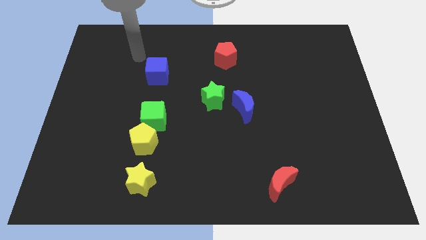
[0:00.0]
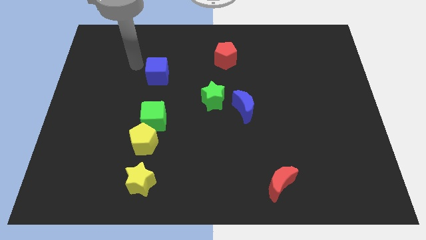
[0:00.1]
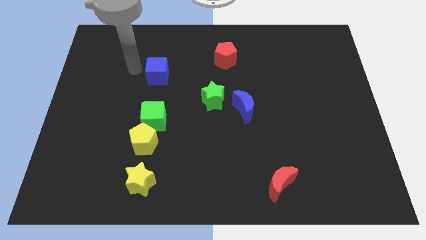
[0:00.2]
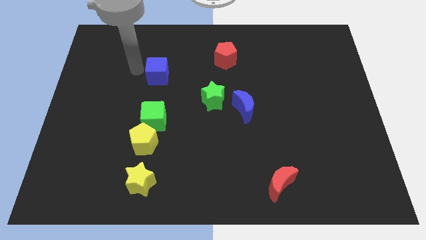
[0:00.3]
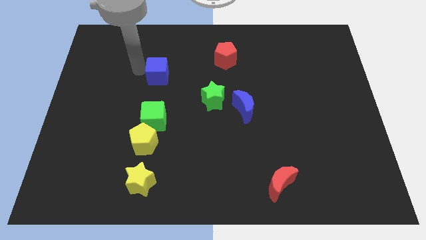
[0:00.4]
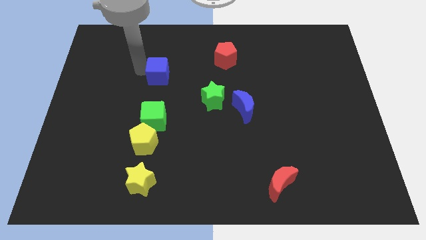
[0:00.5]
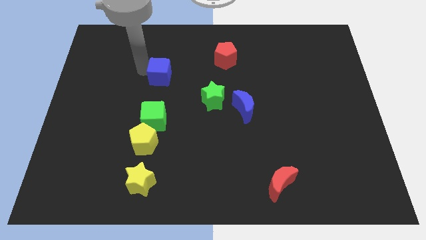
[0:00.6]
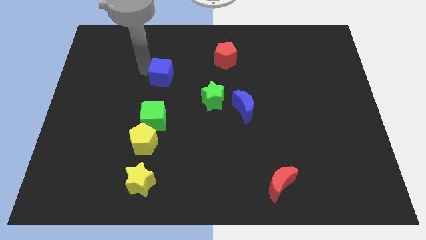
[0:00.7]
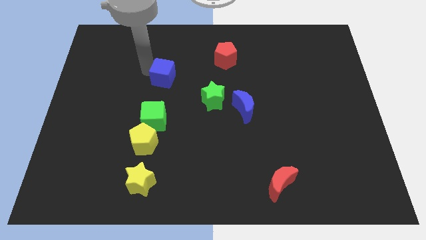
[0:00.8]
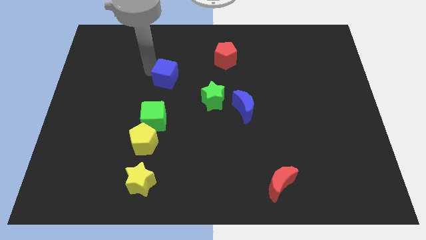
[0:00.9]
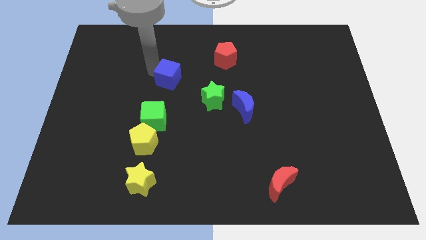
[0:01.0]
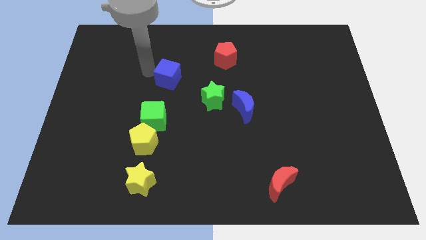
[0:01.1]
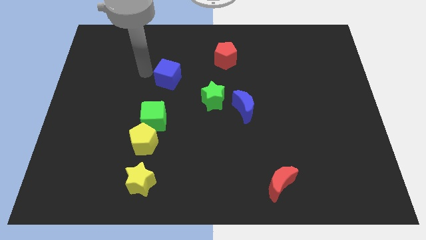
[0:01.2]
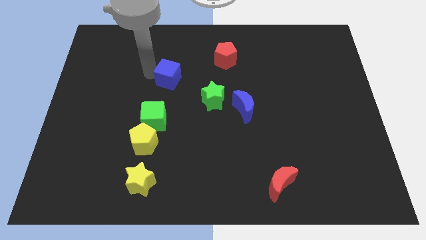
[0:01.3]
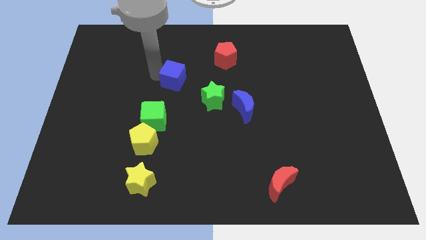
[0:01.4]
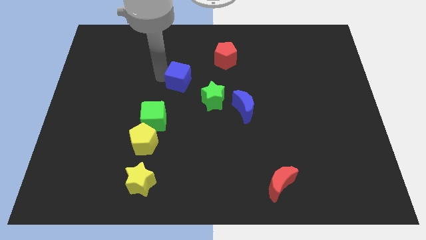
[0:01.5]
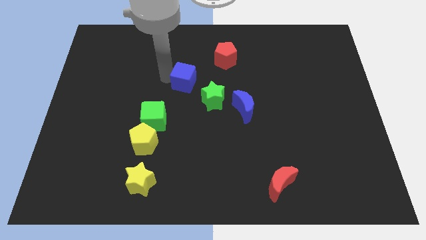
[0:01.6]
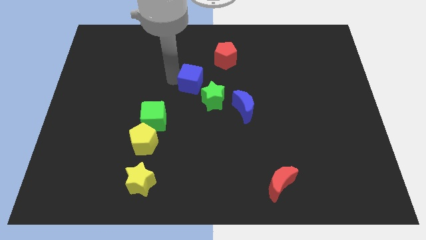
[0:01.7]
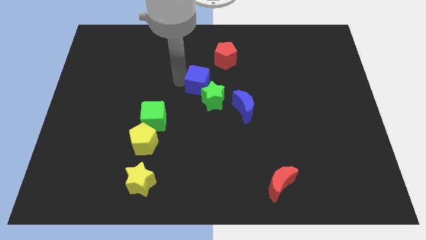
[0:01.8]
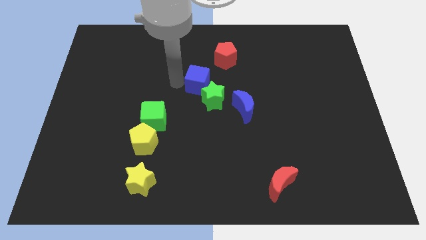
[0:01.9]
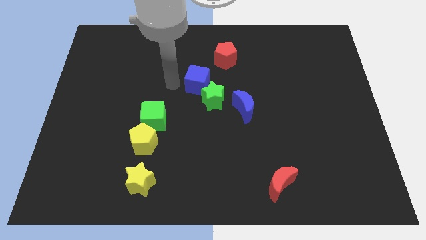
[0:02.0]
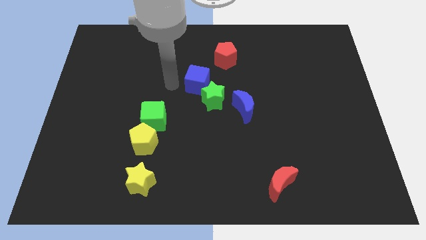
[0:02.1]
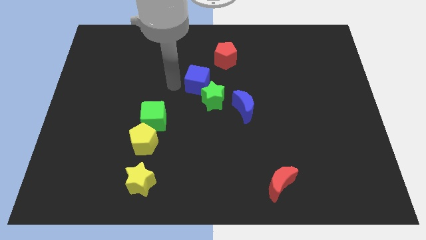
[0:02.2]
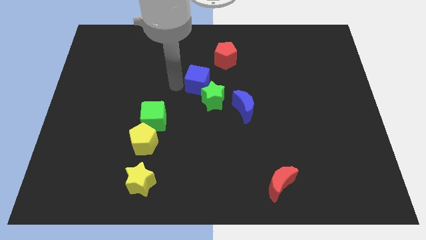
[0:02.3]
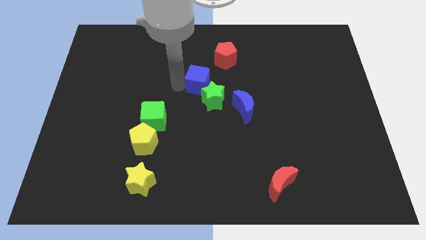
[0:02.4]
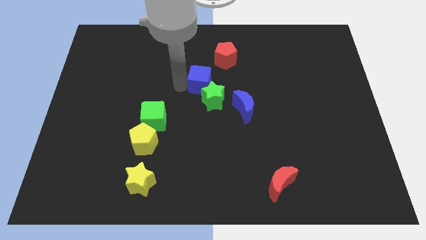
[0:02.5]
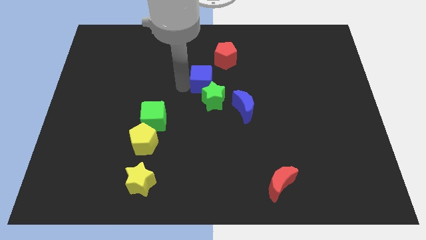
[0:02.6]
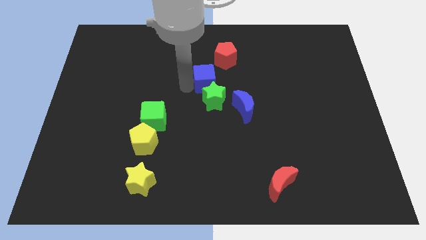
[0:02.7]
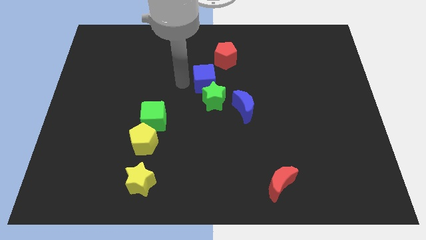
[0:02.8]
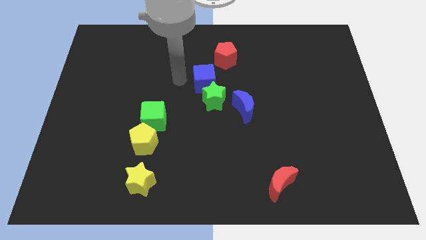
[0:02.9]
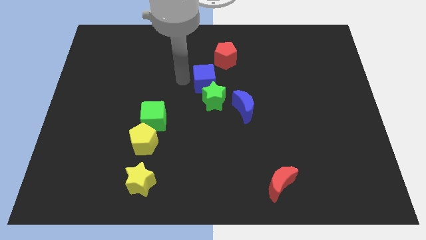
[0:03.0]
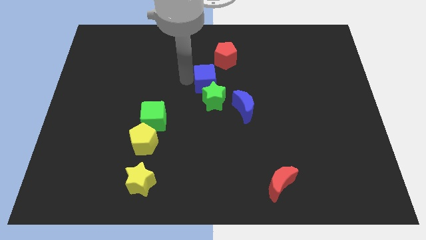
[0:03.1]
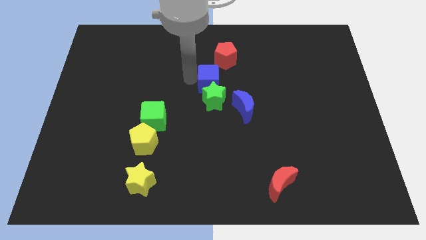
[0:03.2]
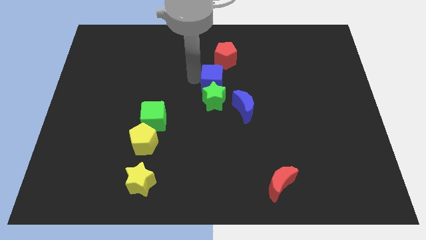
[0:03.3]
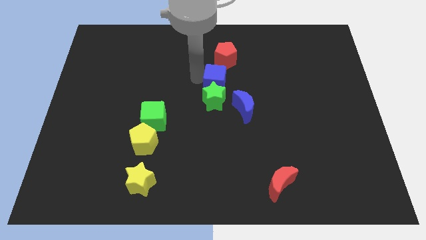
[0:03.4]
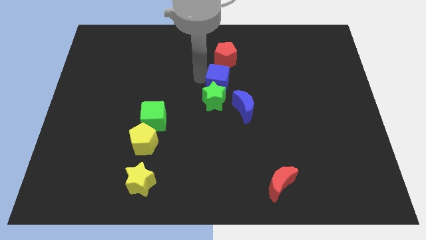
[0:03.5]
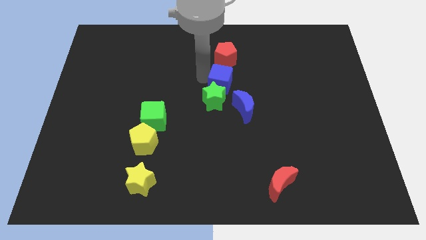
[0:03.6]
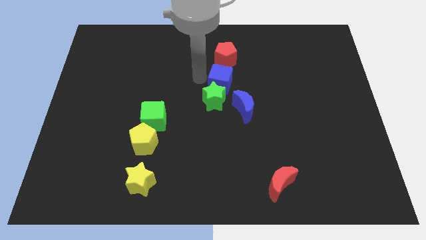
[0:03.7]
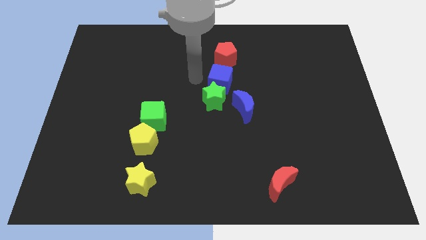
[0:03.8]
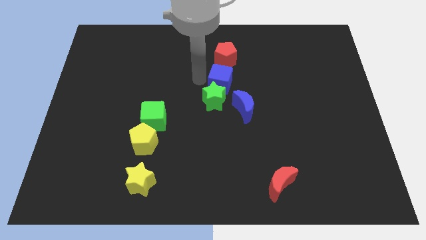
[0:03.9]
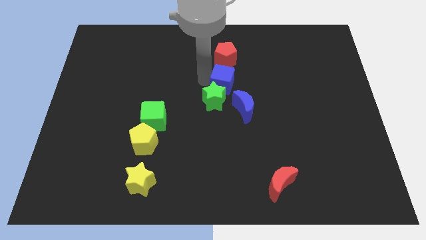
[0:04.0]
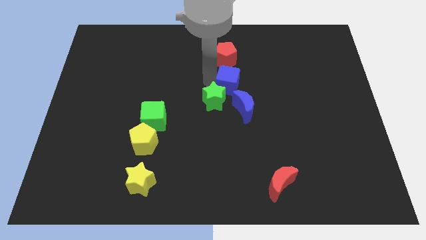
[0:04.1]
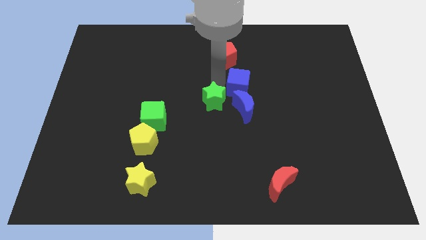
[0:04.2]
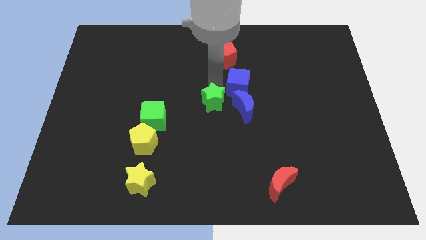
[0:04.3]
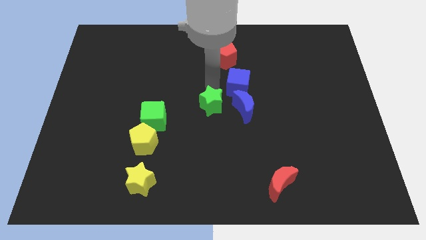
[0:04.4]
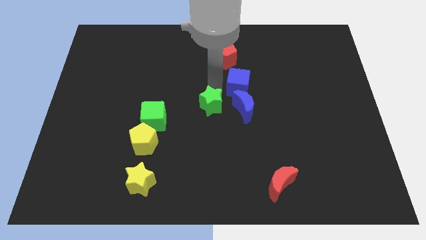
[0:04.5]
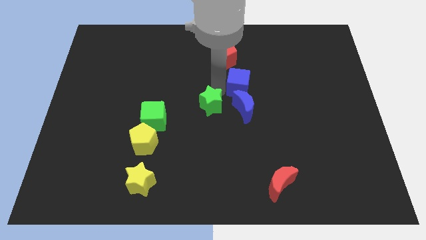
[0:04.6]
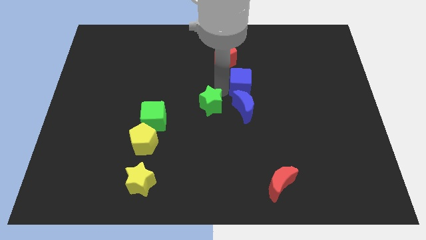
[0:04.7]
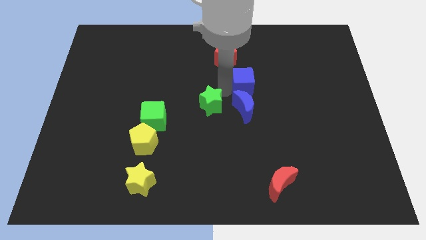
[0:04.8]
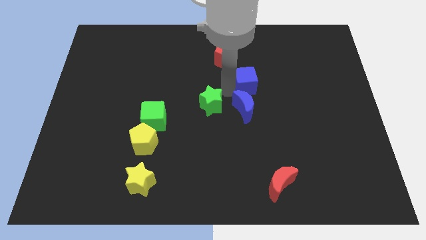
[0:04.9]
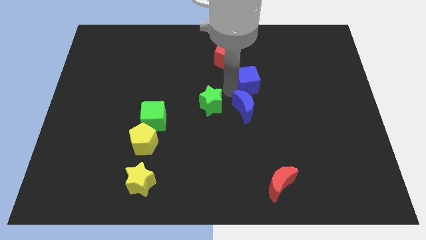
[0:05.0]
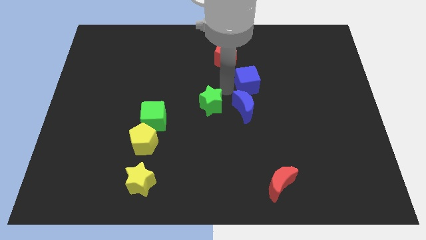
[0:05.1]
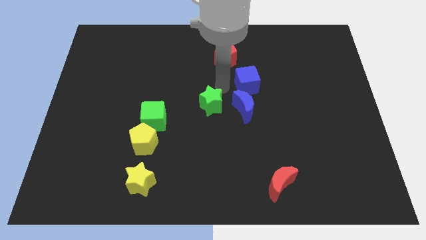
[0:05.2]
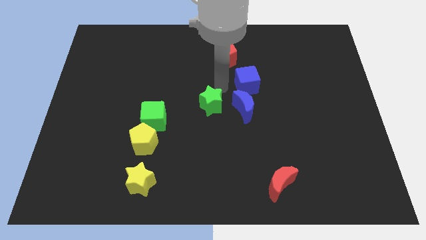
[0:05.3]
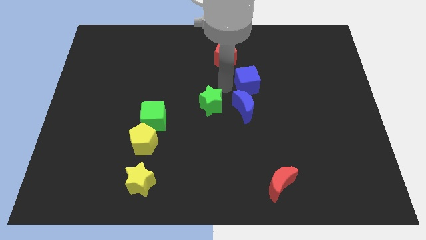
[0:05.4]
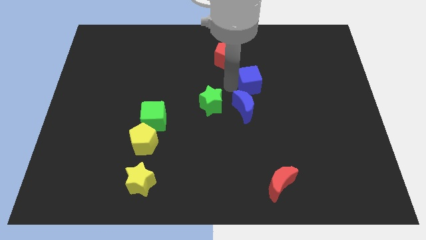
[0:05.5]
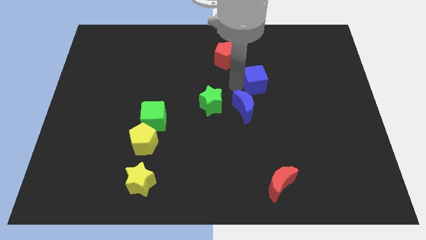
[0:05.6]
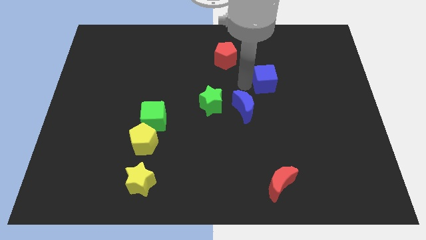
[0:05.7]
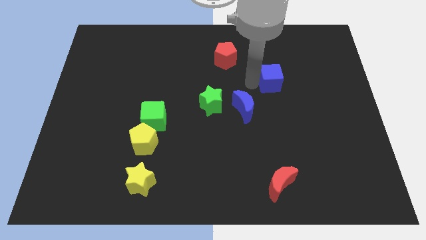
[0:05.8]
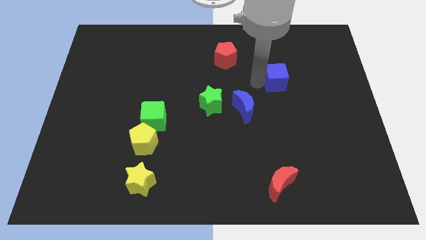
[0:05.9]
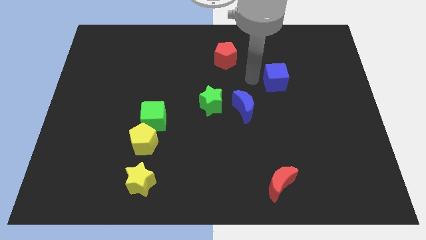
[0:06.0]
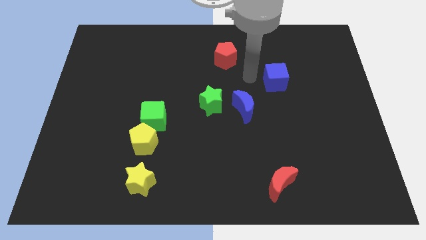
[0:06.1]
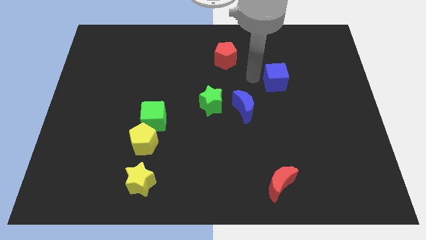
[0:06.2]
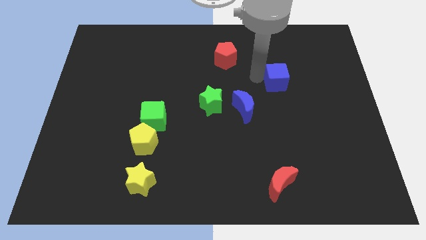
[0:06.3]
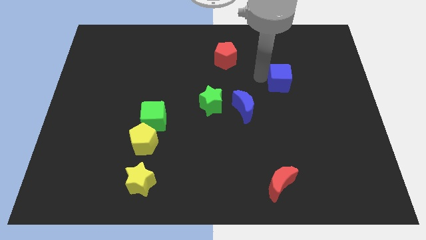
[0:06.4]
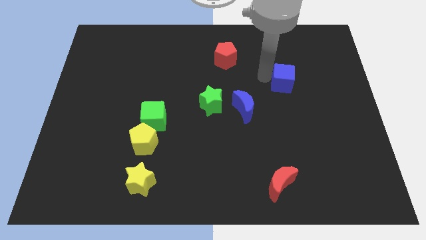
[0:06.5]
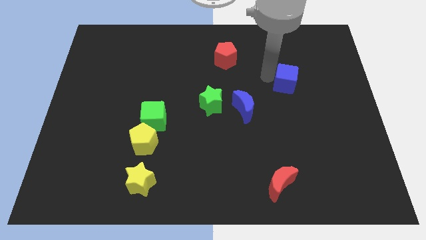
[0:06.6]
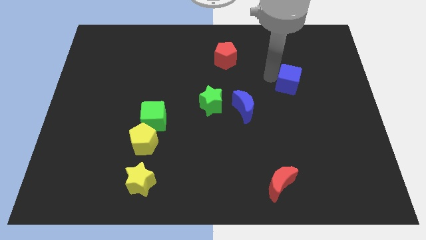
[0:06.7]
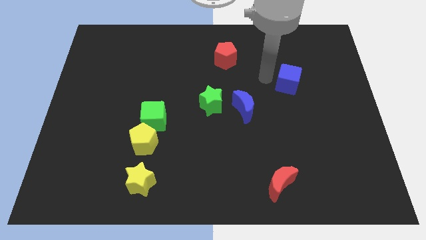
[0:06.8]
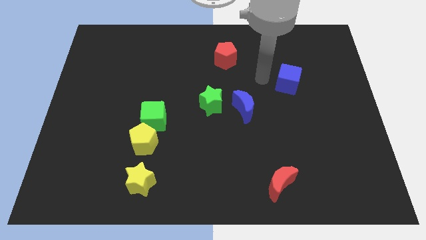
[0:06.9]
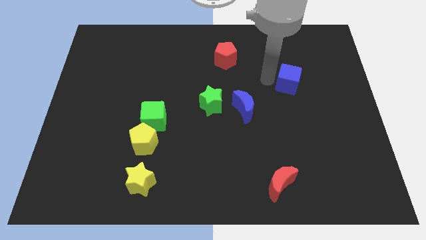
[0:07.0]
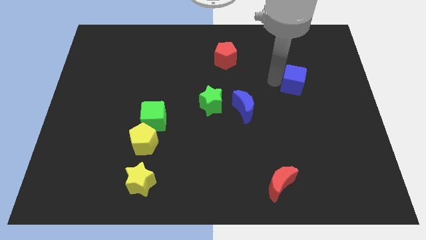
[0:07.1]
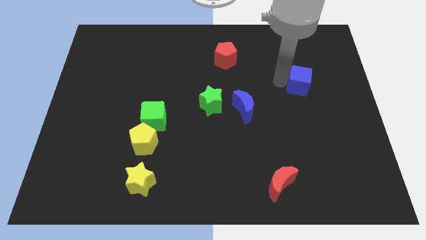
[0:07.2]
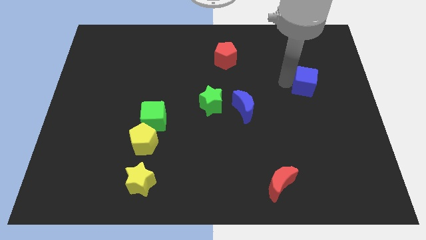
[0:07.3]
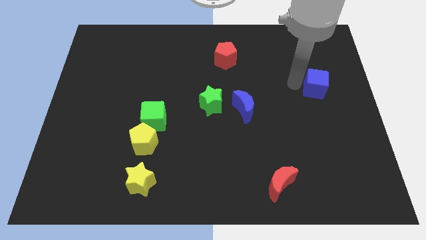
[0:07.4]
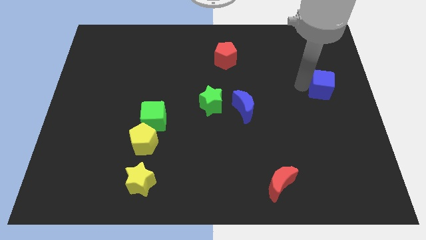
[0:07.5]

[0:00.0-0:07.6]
slide the blue cube to the right side
